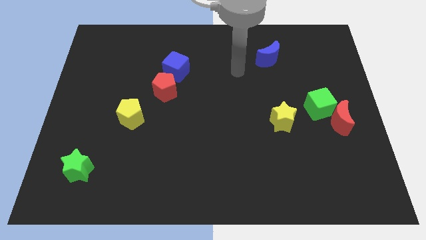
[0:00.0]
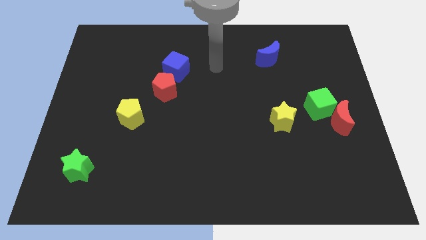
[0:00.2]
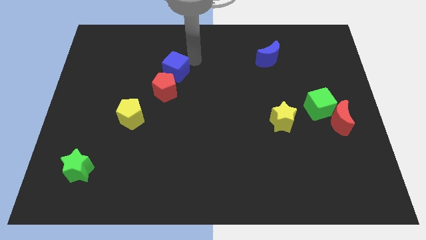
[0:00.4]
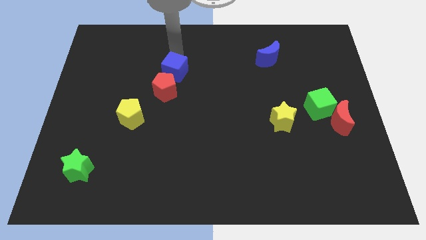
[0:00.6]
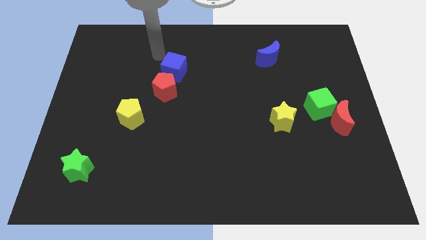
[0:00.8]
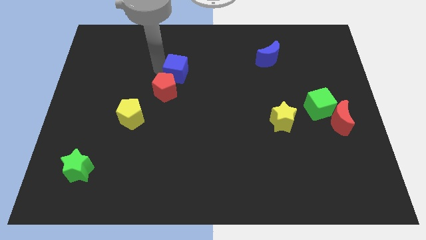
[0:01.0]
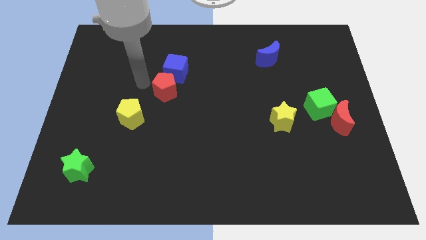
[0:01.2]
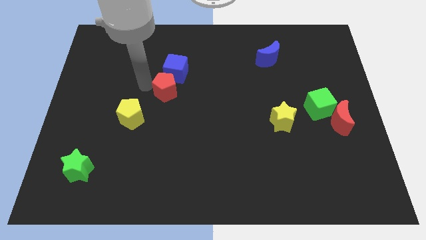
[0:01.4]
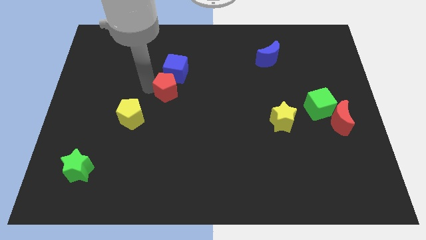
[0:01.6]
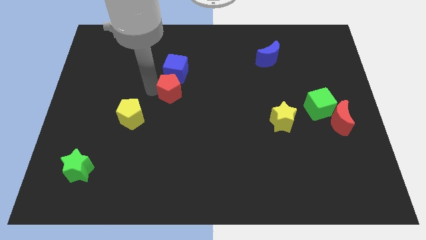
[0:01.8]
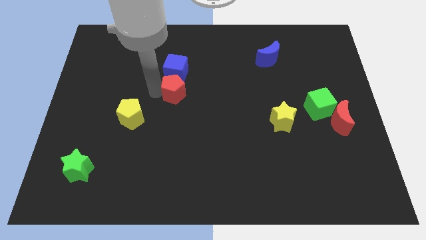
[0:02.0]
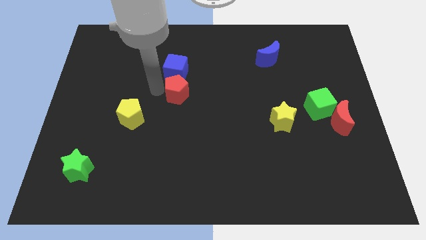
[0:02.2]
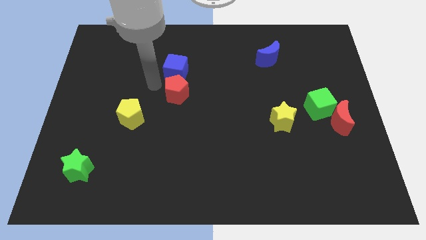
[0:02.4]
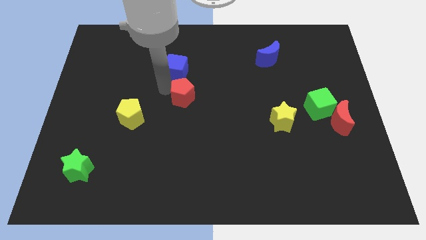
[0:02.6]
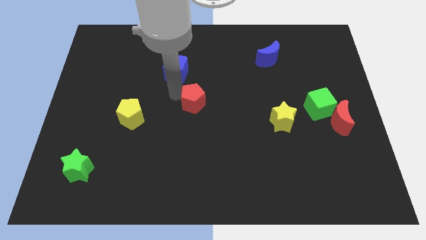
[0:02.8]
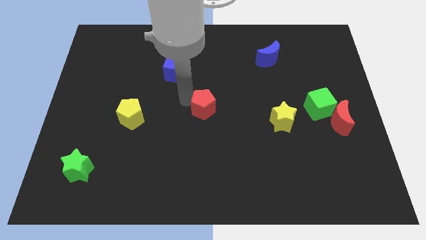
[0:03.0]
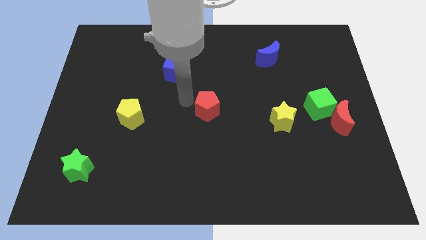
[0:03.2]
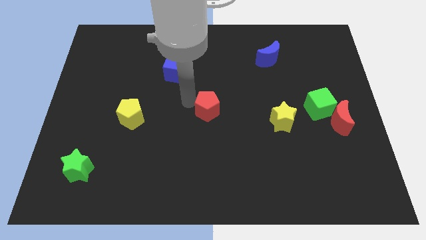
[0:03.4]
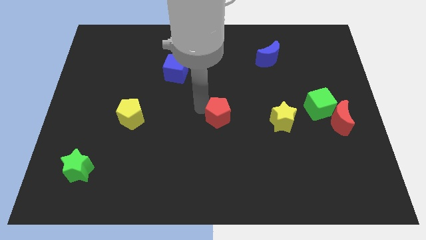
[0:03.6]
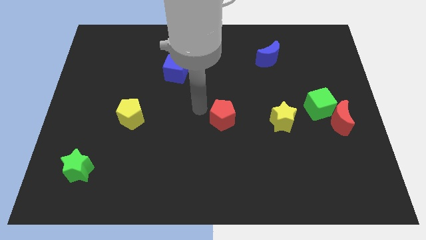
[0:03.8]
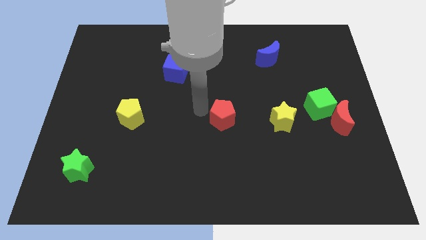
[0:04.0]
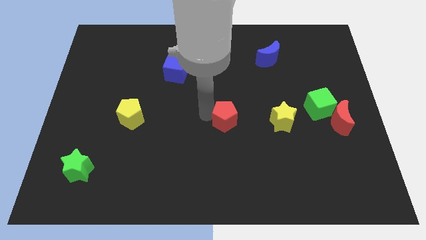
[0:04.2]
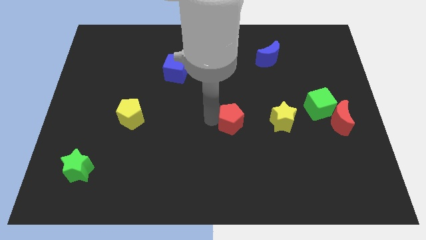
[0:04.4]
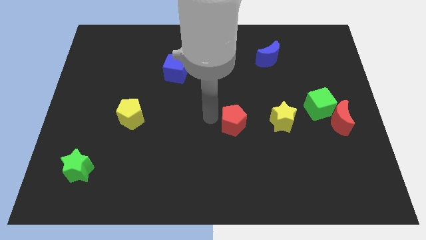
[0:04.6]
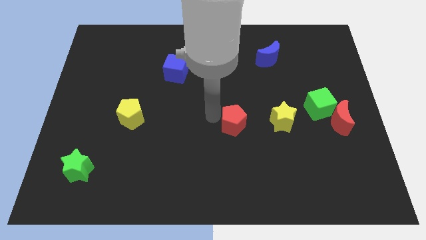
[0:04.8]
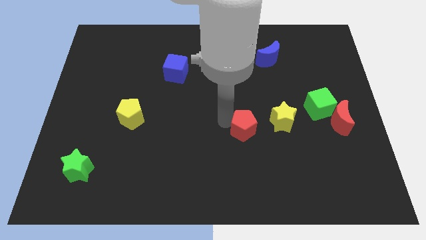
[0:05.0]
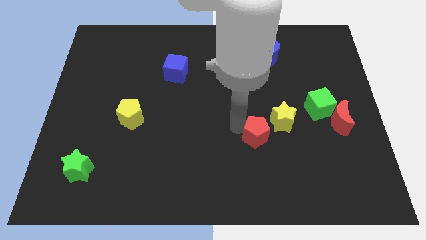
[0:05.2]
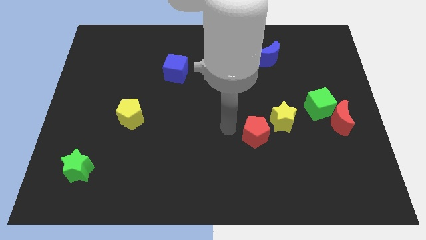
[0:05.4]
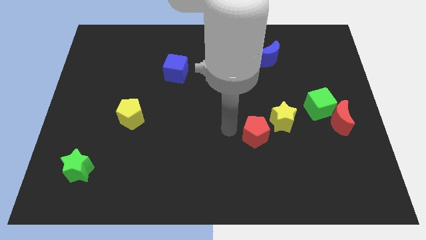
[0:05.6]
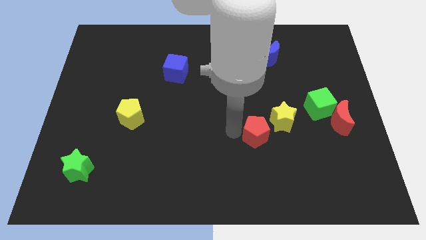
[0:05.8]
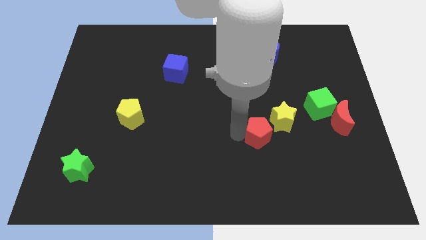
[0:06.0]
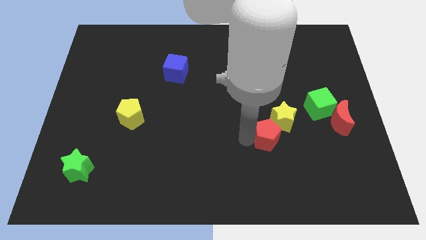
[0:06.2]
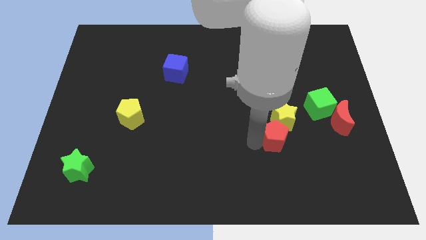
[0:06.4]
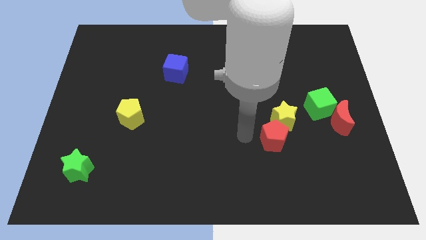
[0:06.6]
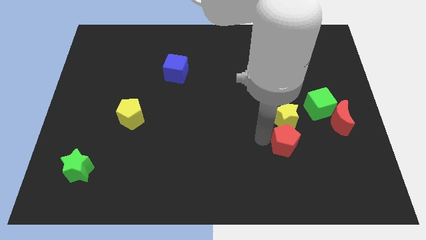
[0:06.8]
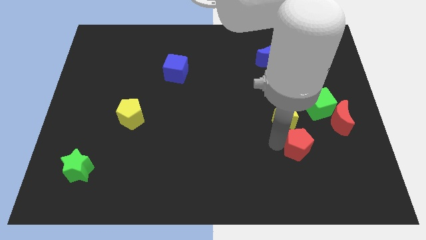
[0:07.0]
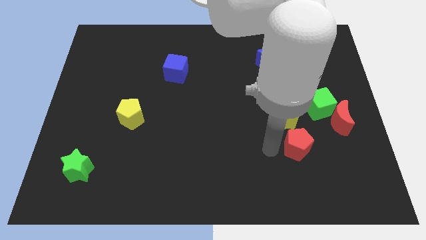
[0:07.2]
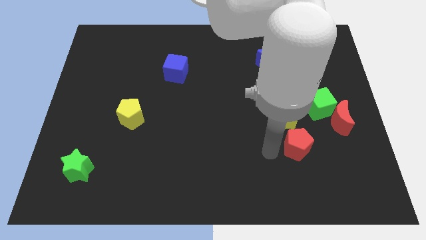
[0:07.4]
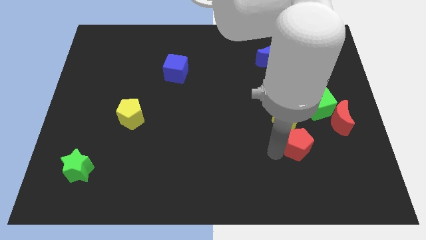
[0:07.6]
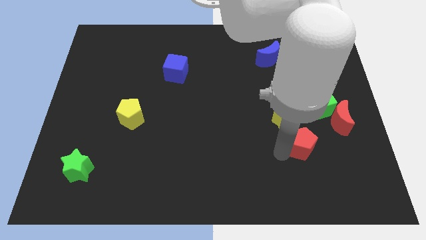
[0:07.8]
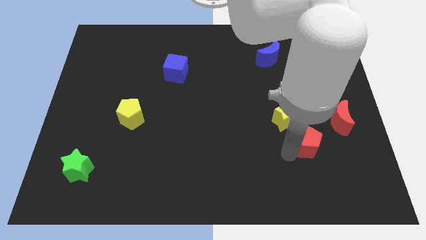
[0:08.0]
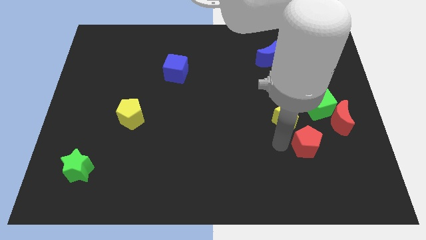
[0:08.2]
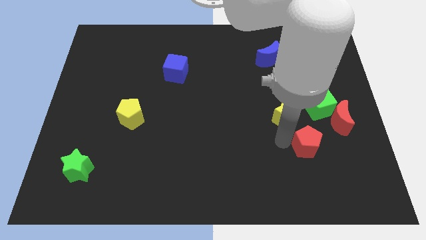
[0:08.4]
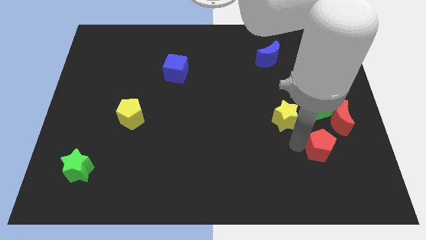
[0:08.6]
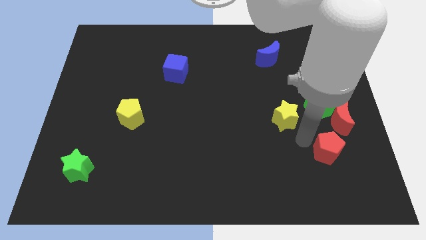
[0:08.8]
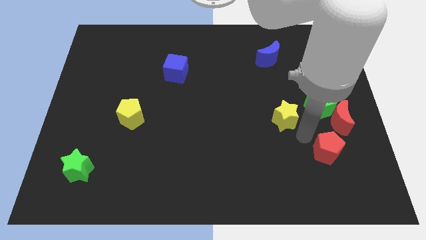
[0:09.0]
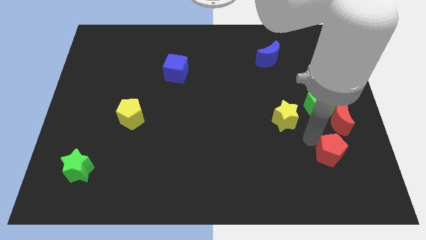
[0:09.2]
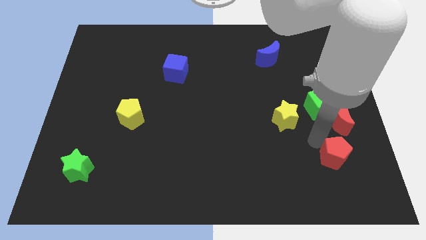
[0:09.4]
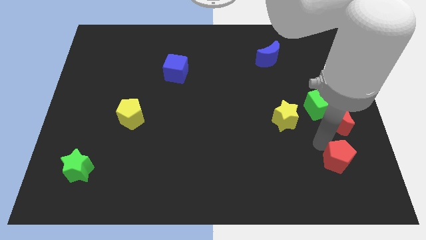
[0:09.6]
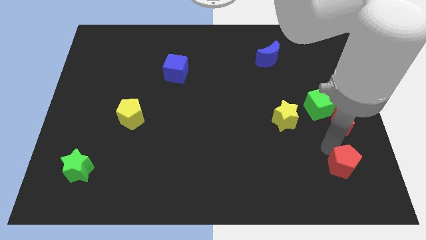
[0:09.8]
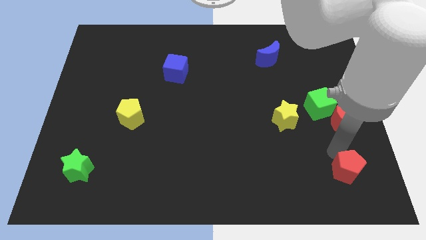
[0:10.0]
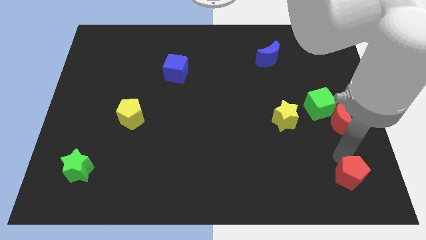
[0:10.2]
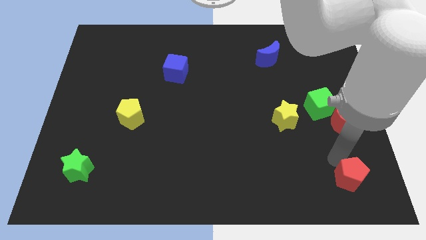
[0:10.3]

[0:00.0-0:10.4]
move the red pentagon to the bottom right of the board

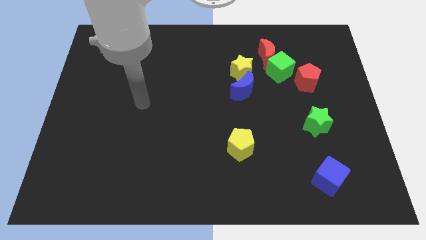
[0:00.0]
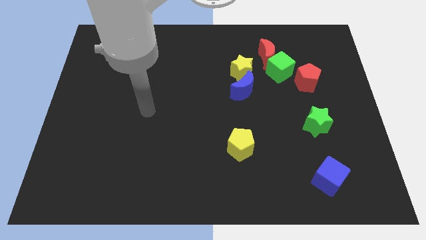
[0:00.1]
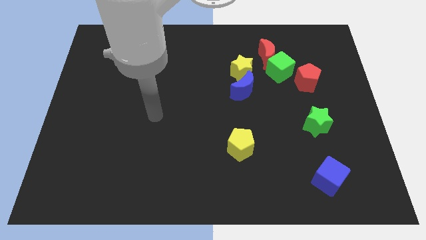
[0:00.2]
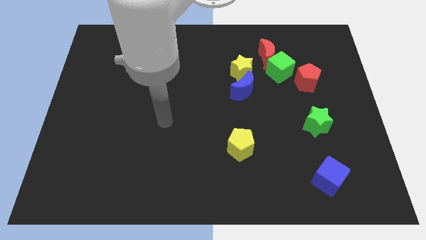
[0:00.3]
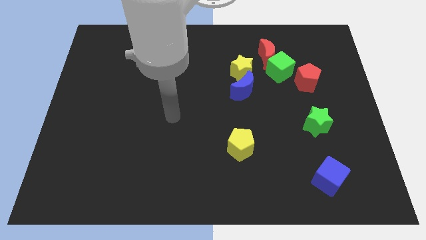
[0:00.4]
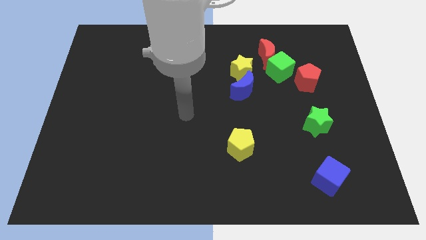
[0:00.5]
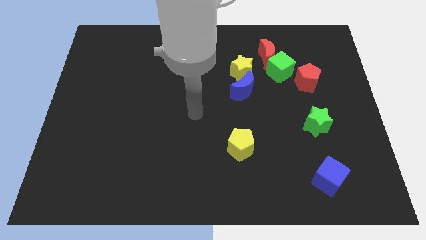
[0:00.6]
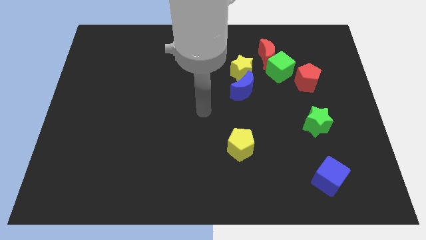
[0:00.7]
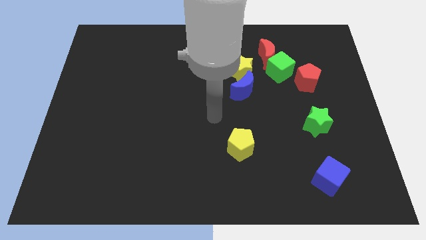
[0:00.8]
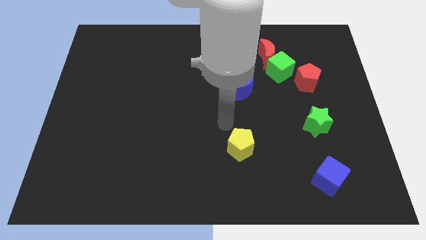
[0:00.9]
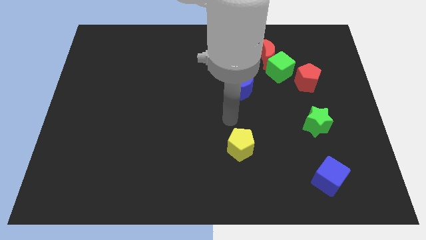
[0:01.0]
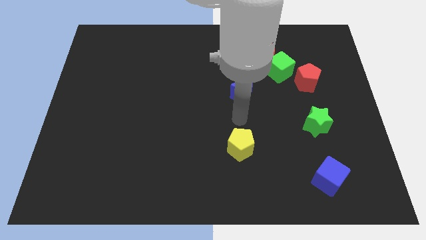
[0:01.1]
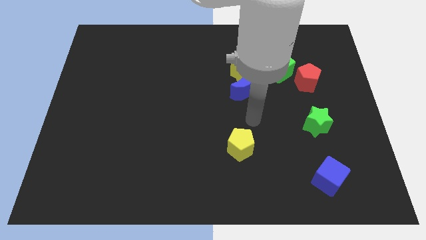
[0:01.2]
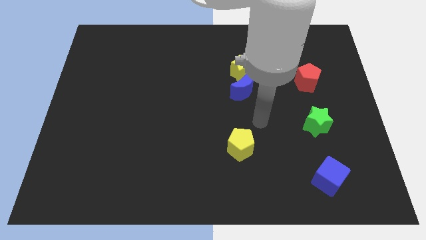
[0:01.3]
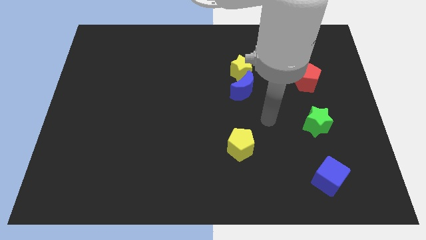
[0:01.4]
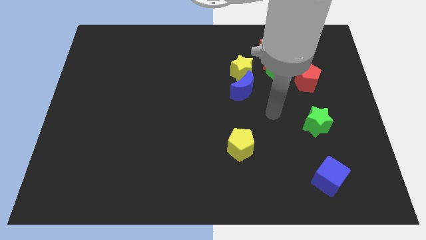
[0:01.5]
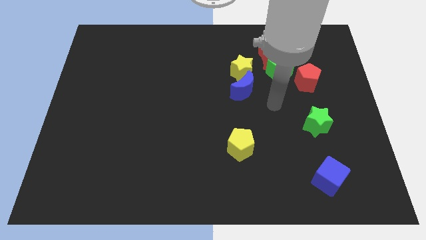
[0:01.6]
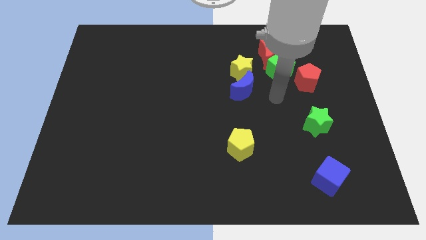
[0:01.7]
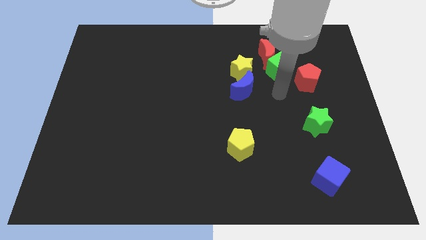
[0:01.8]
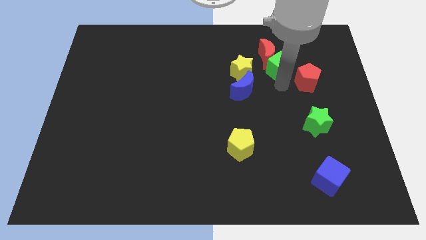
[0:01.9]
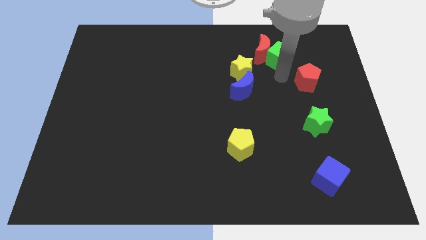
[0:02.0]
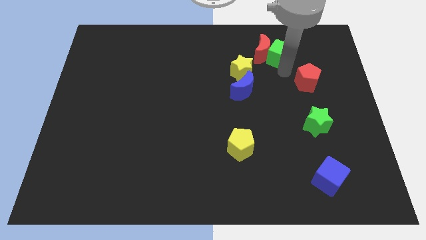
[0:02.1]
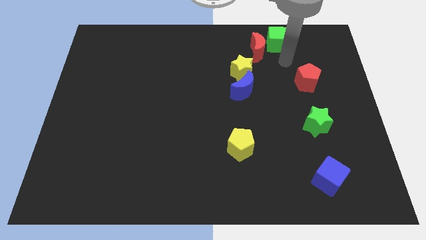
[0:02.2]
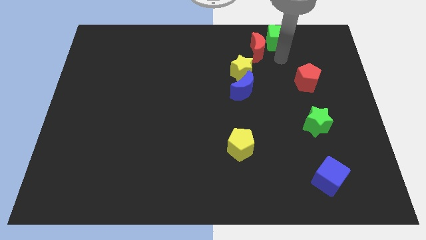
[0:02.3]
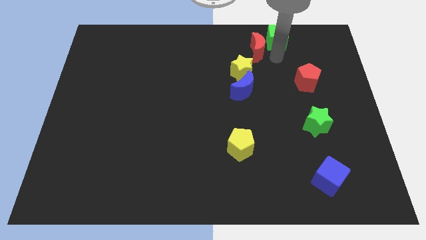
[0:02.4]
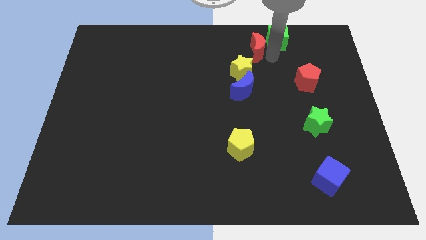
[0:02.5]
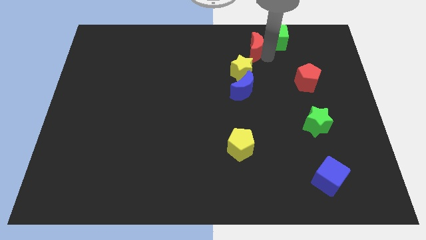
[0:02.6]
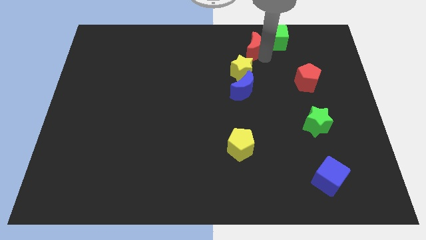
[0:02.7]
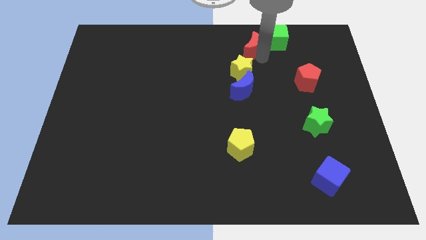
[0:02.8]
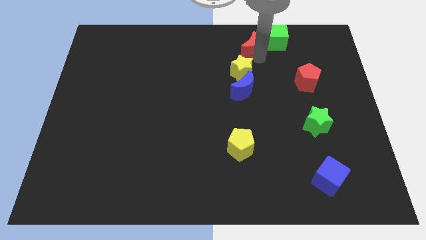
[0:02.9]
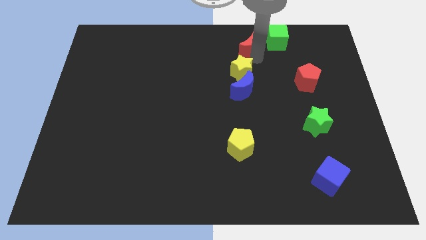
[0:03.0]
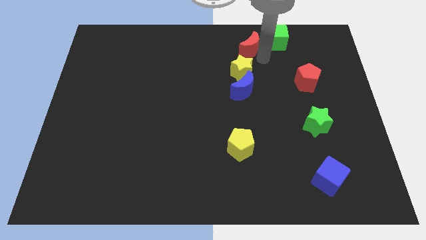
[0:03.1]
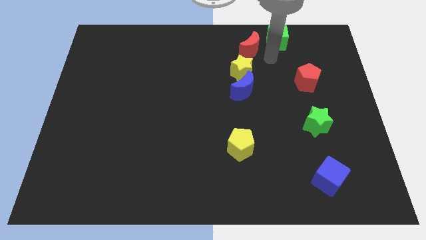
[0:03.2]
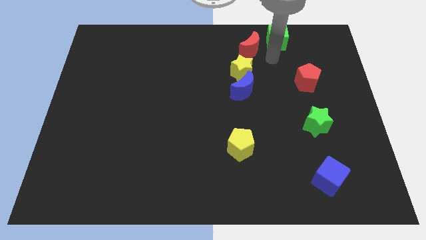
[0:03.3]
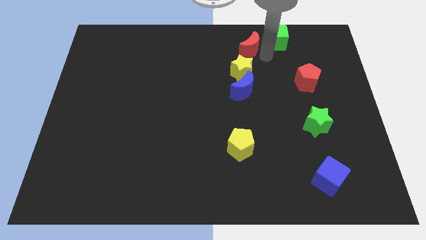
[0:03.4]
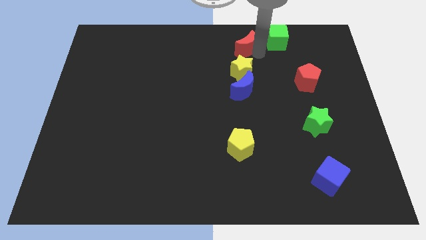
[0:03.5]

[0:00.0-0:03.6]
push the red moon to the top
